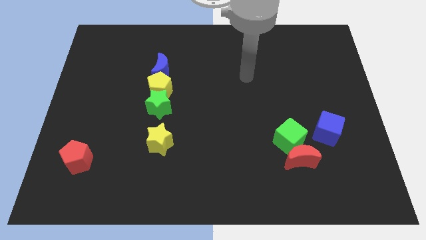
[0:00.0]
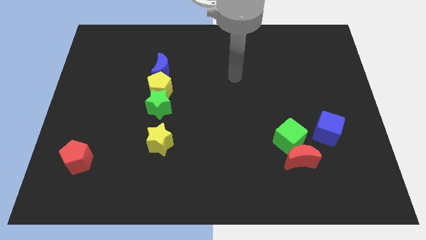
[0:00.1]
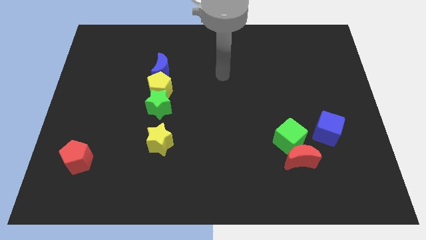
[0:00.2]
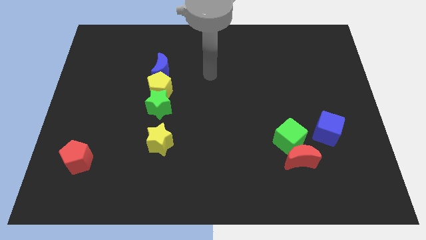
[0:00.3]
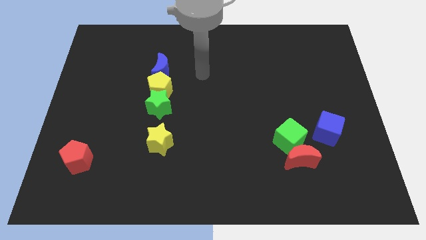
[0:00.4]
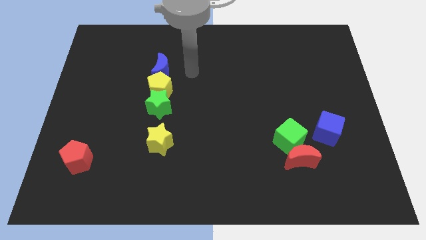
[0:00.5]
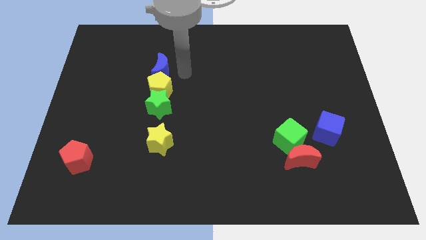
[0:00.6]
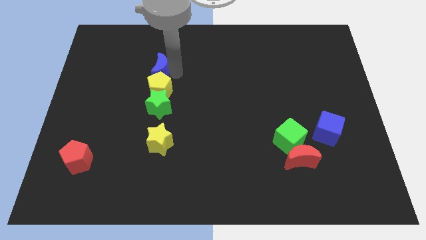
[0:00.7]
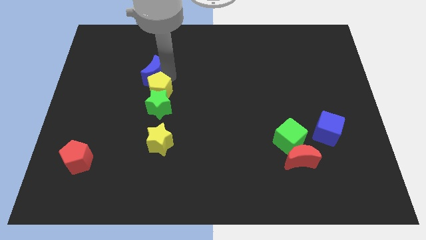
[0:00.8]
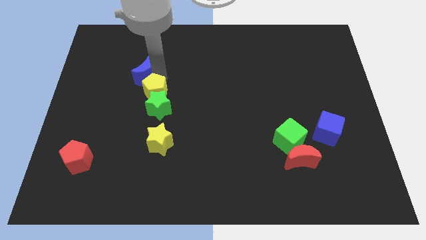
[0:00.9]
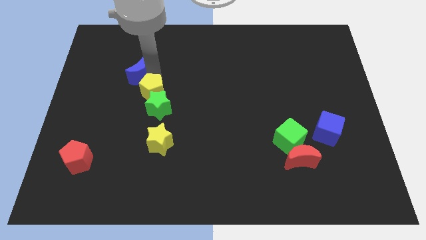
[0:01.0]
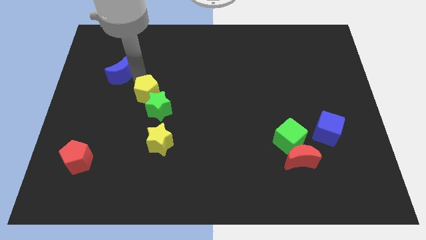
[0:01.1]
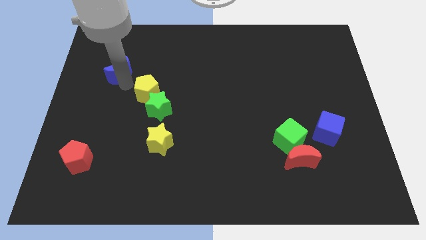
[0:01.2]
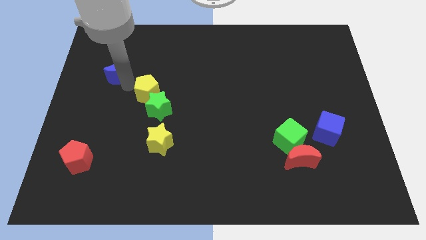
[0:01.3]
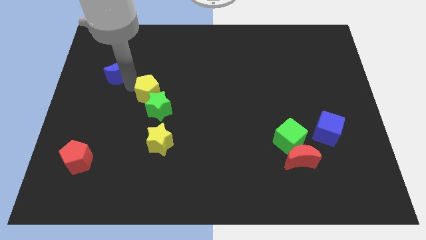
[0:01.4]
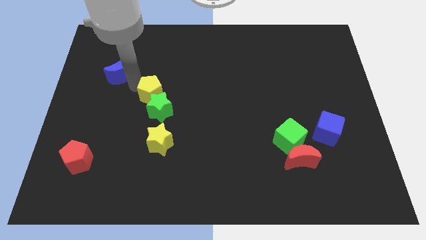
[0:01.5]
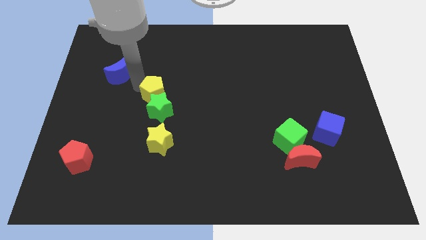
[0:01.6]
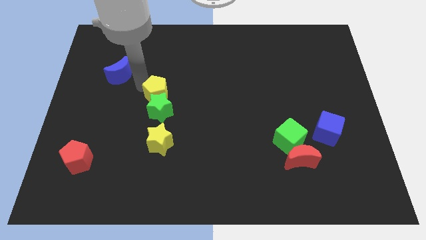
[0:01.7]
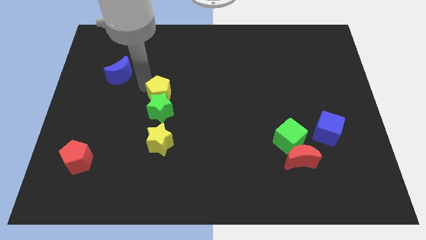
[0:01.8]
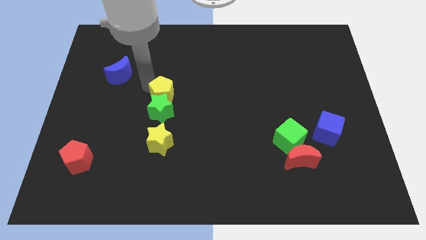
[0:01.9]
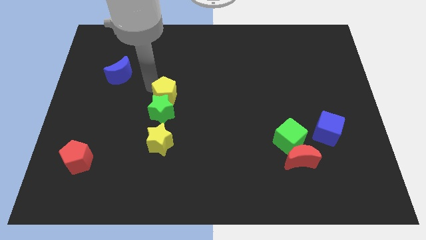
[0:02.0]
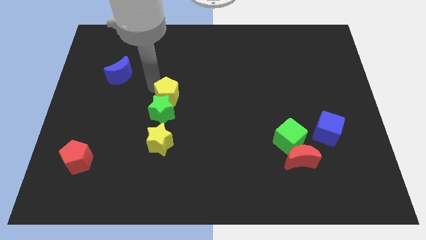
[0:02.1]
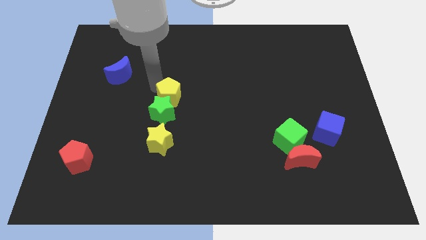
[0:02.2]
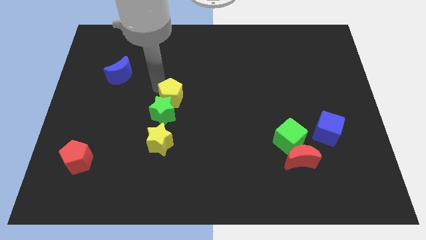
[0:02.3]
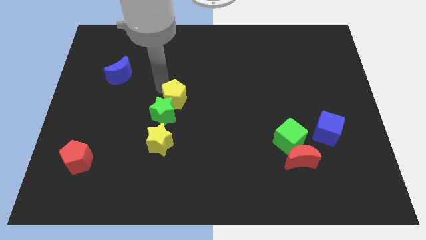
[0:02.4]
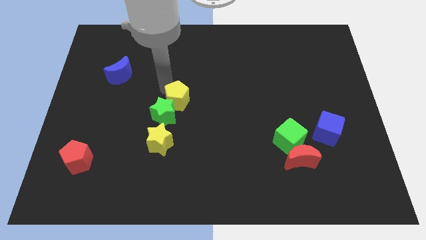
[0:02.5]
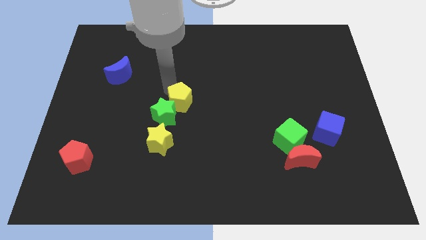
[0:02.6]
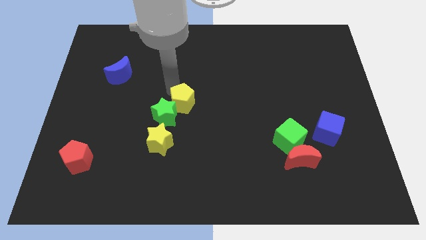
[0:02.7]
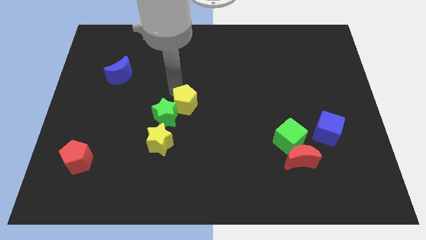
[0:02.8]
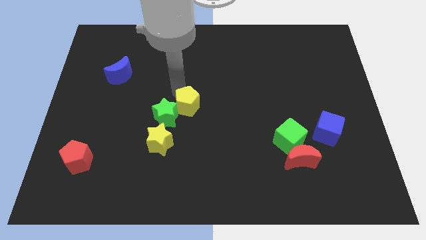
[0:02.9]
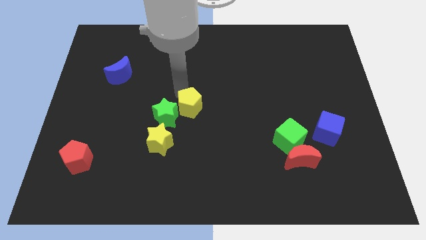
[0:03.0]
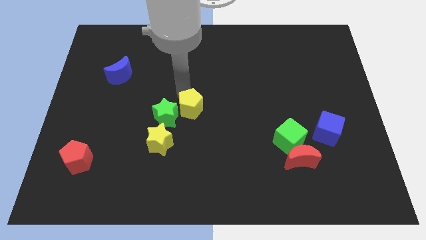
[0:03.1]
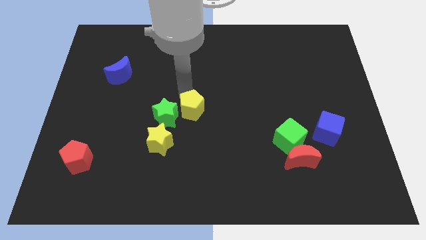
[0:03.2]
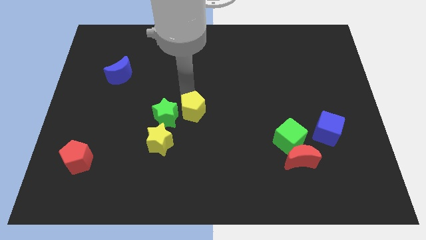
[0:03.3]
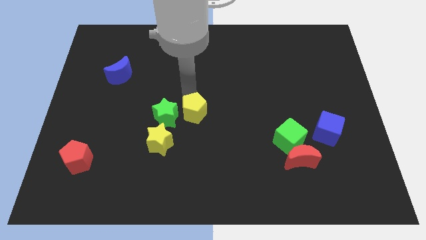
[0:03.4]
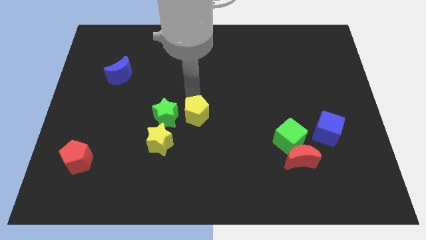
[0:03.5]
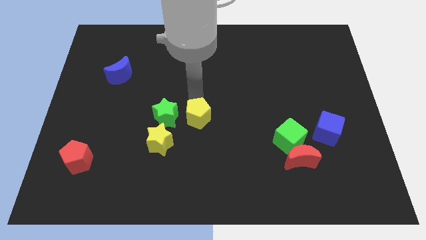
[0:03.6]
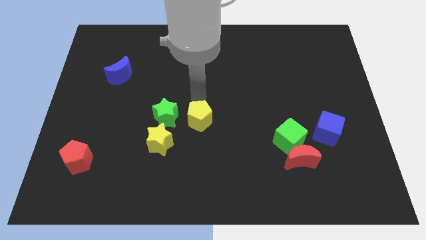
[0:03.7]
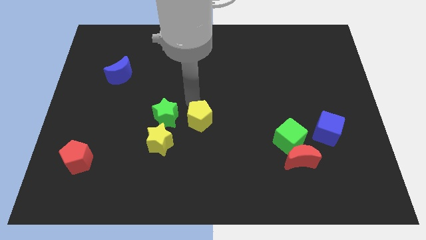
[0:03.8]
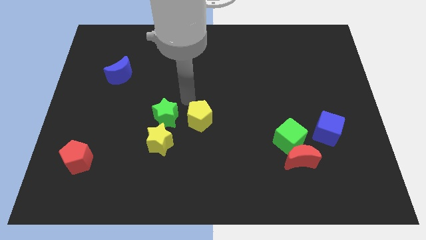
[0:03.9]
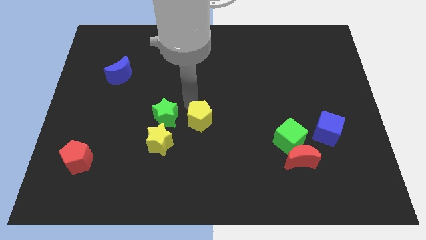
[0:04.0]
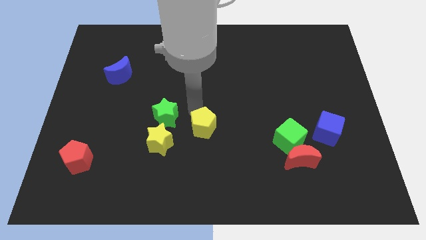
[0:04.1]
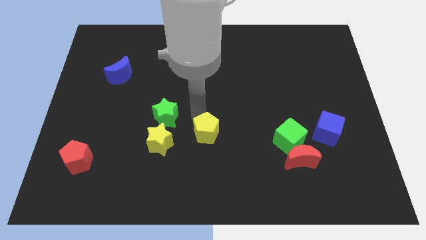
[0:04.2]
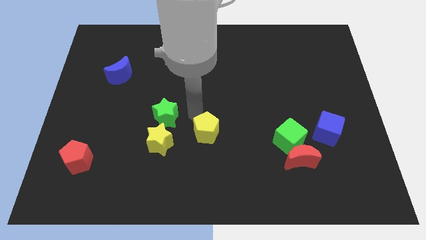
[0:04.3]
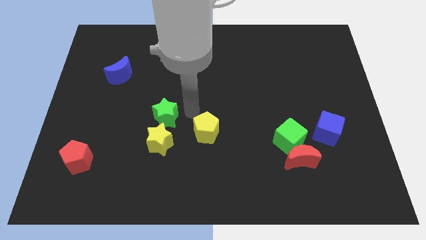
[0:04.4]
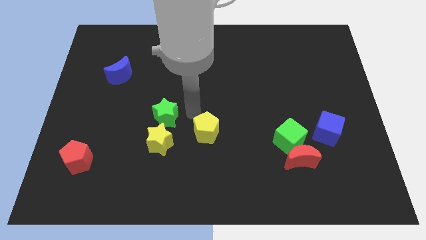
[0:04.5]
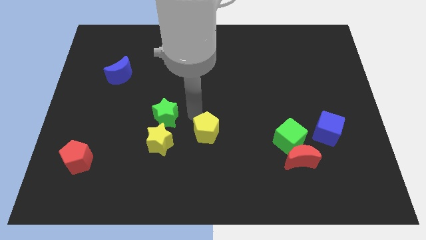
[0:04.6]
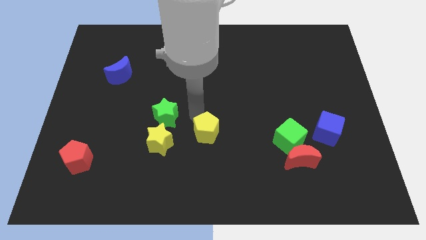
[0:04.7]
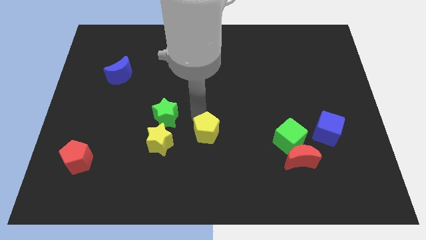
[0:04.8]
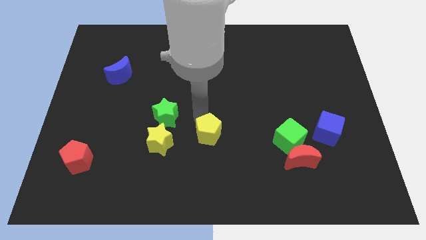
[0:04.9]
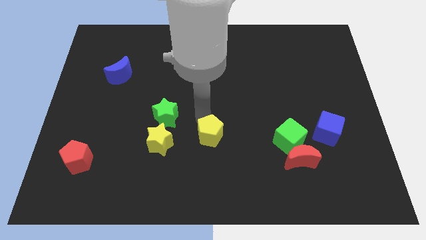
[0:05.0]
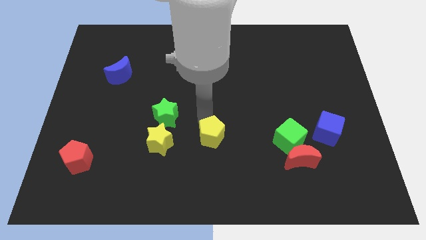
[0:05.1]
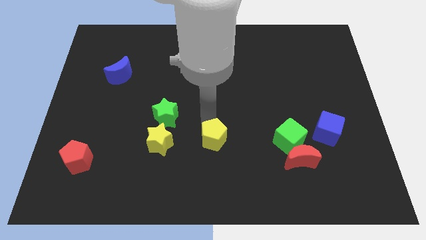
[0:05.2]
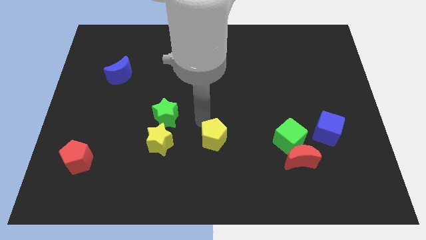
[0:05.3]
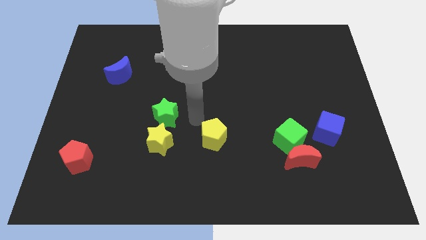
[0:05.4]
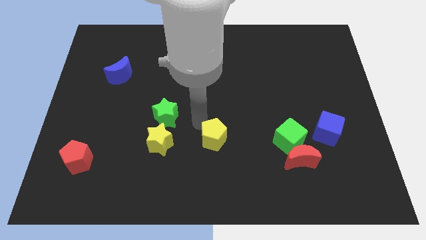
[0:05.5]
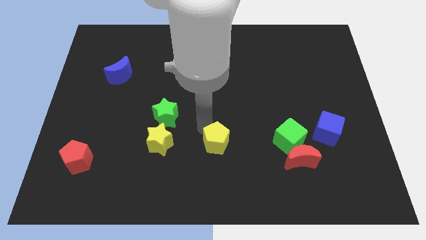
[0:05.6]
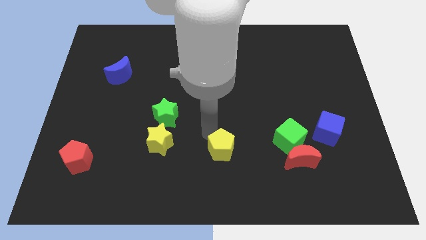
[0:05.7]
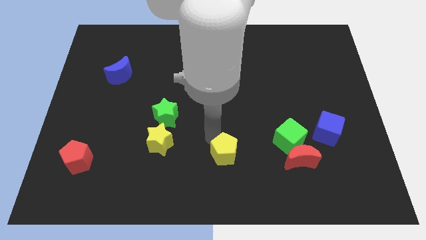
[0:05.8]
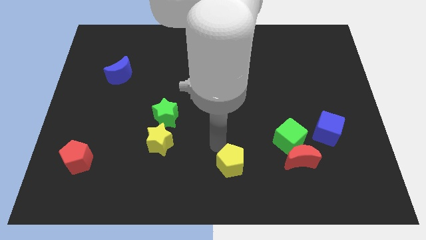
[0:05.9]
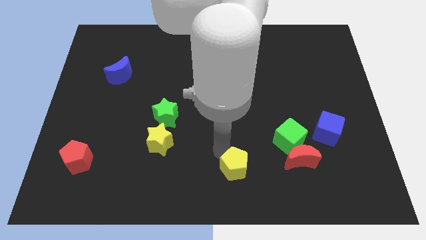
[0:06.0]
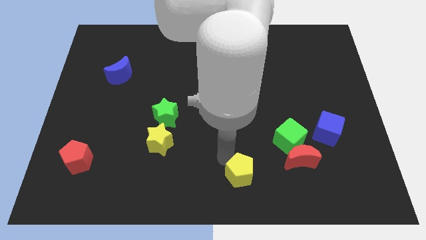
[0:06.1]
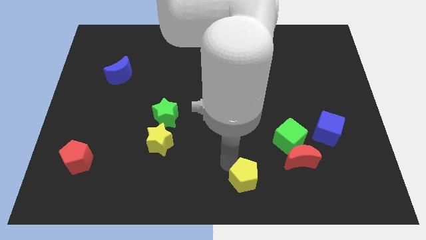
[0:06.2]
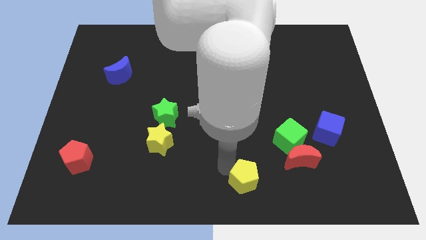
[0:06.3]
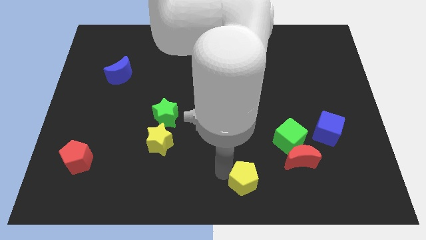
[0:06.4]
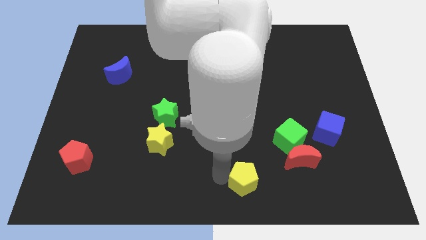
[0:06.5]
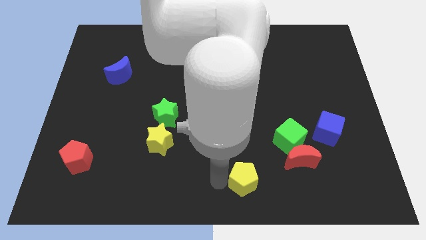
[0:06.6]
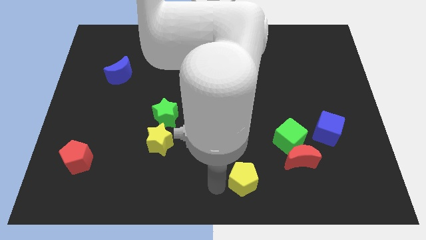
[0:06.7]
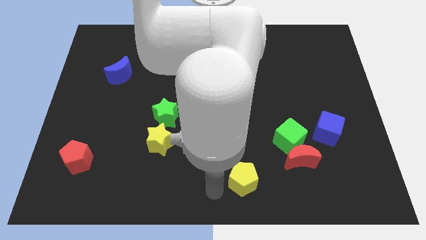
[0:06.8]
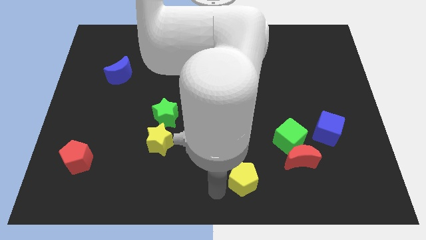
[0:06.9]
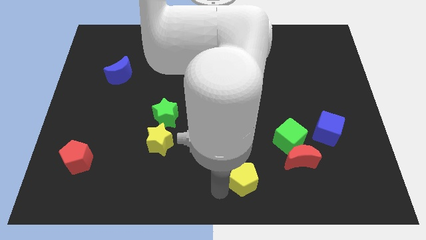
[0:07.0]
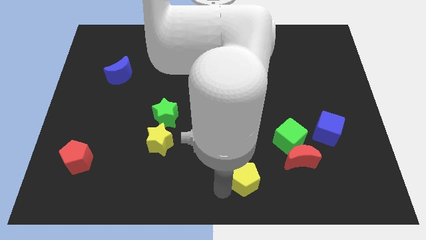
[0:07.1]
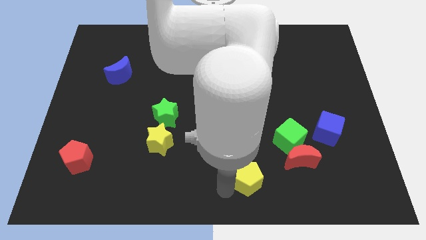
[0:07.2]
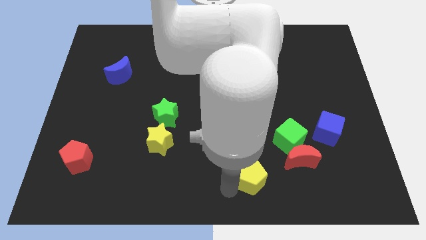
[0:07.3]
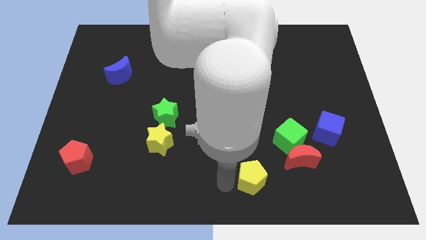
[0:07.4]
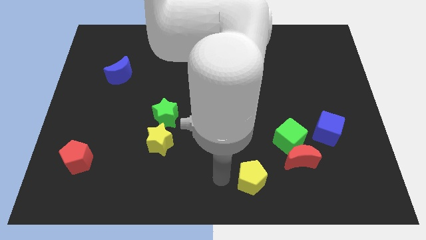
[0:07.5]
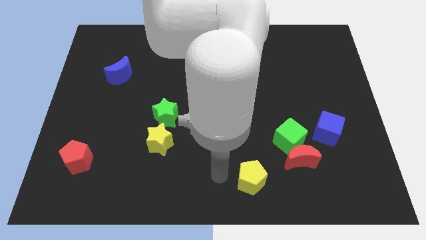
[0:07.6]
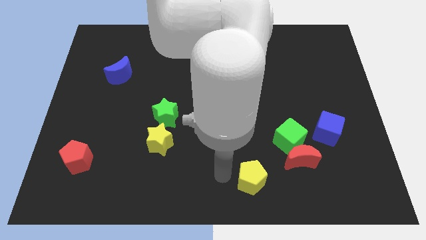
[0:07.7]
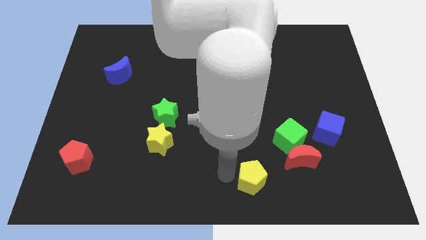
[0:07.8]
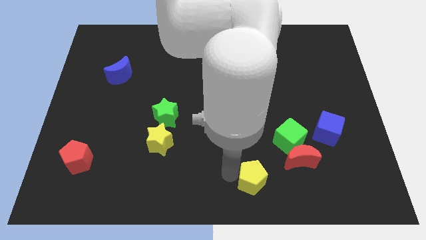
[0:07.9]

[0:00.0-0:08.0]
push the yellow pentagon diagonally down and to the left of the red moon
